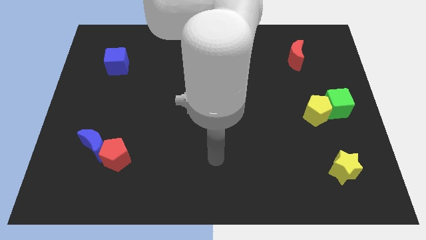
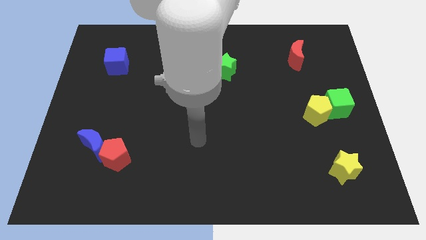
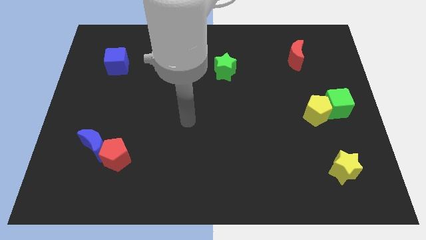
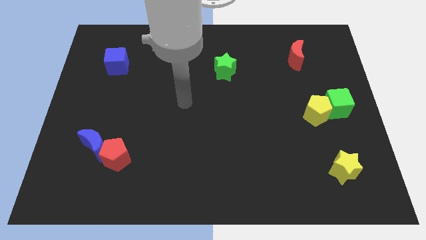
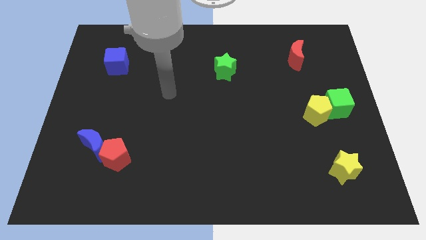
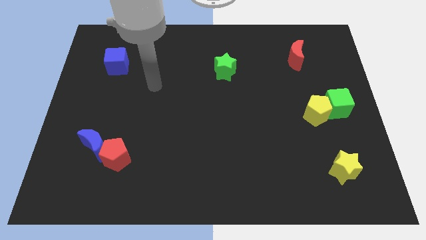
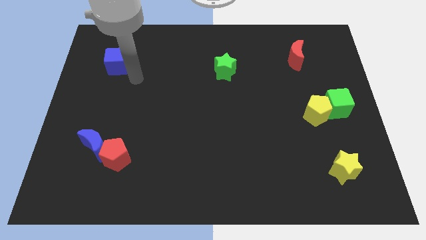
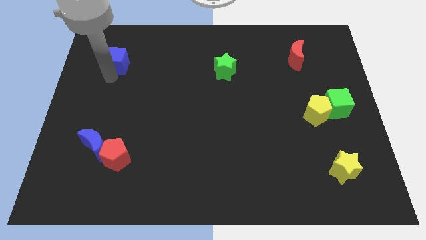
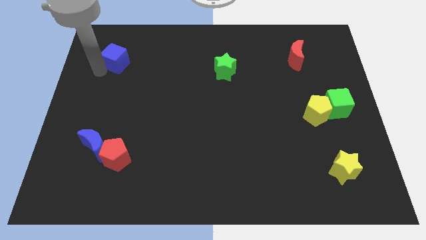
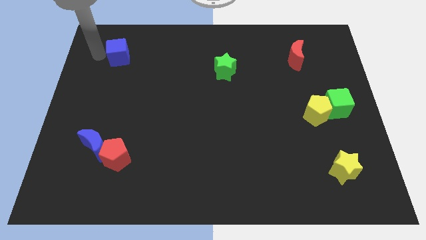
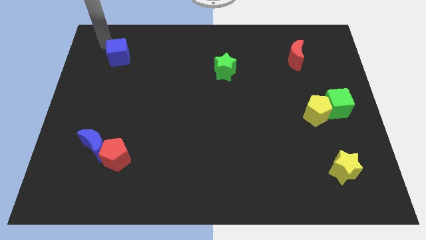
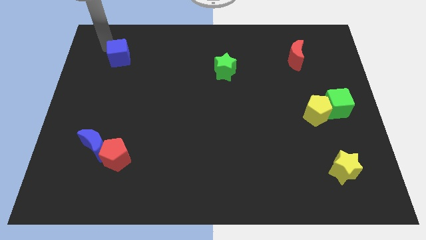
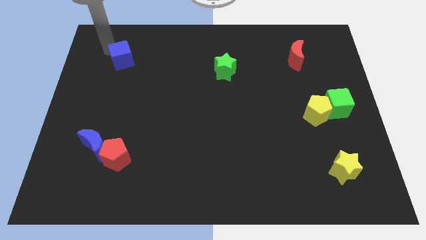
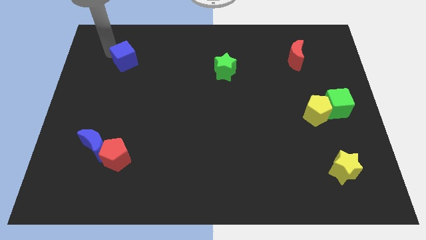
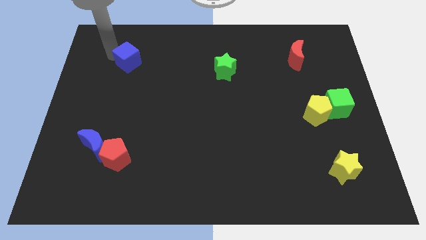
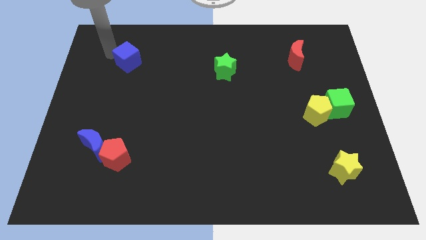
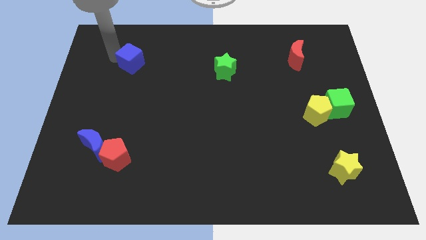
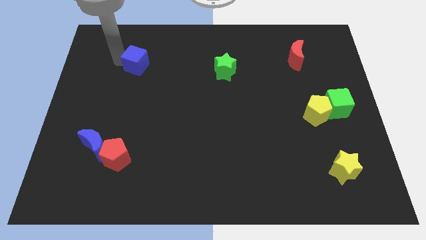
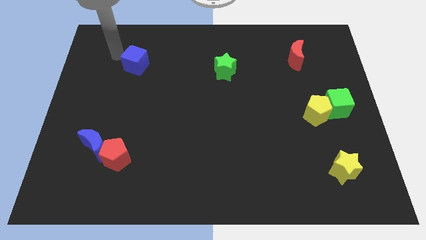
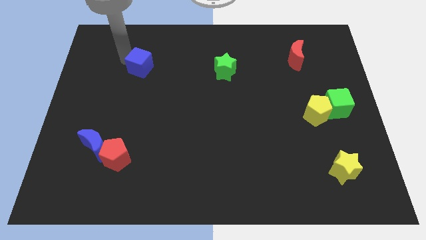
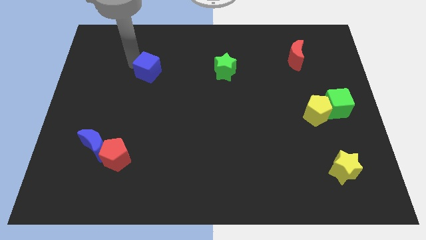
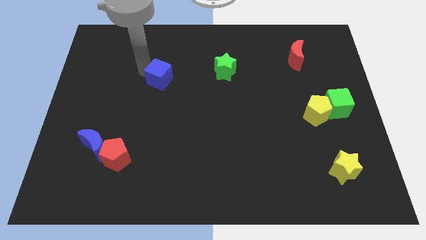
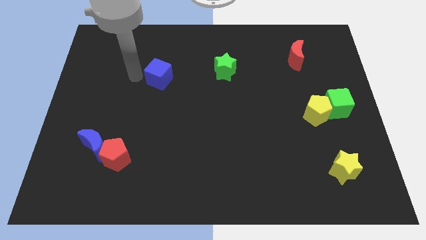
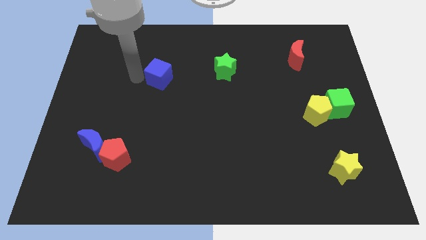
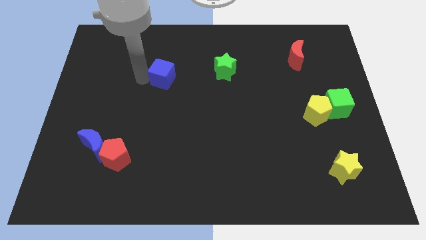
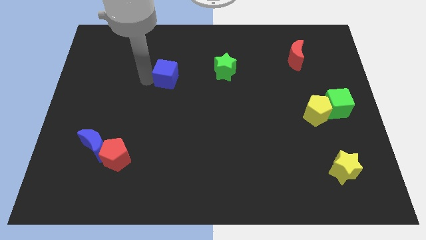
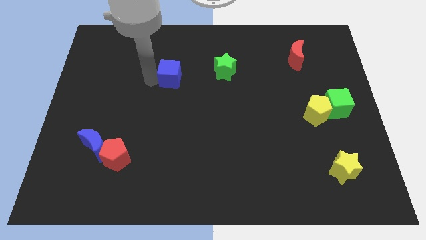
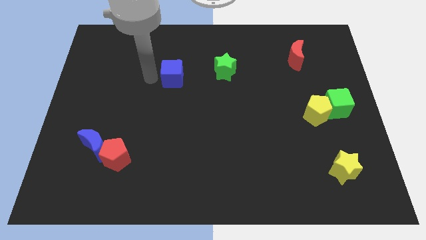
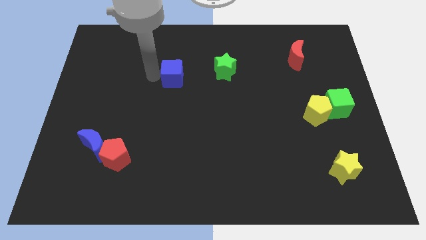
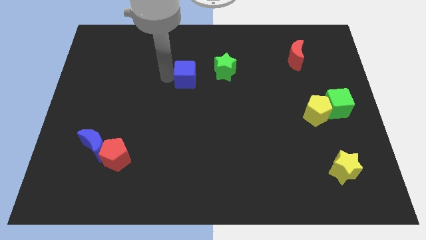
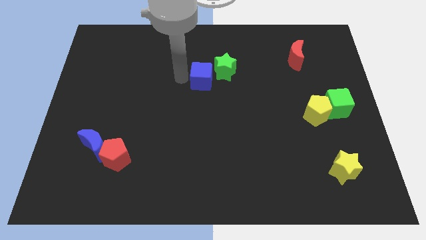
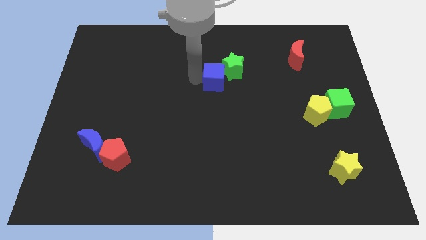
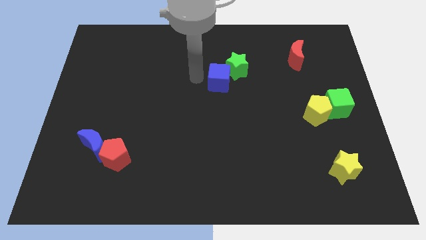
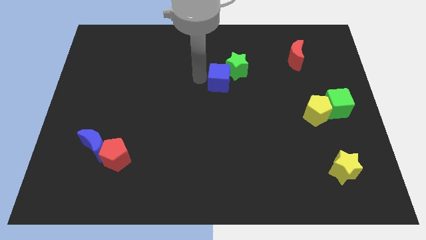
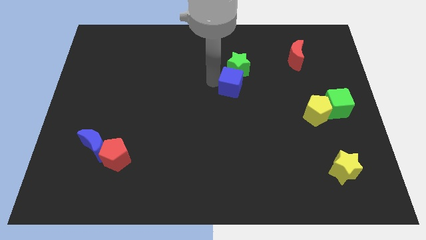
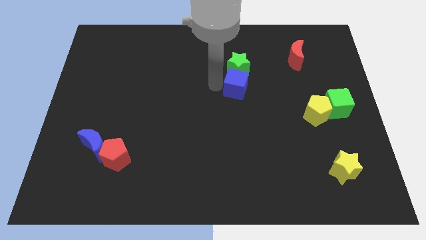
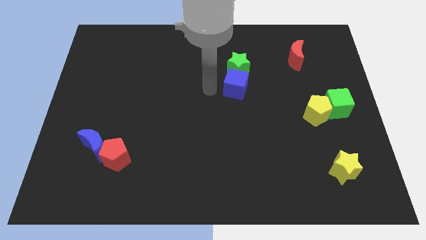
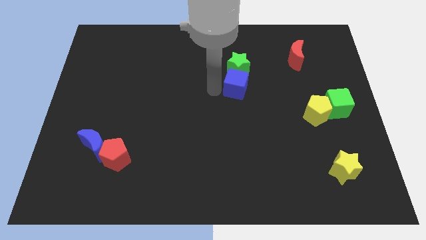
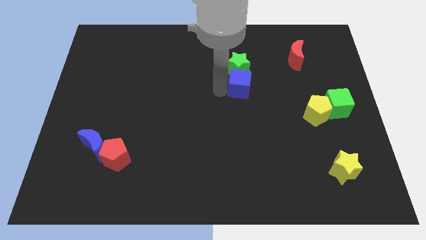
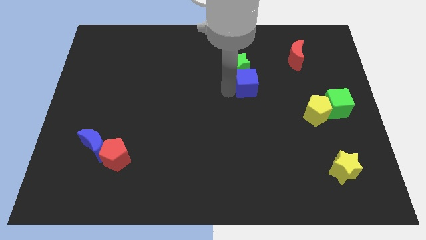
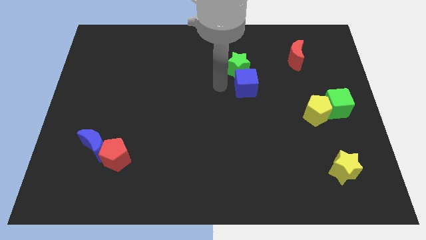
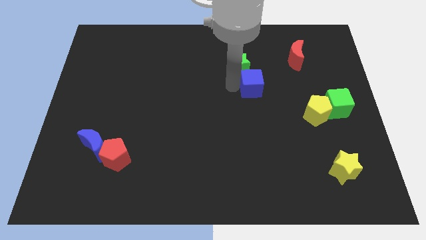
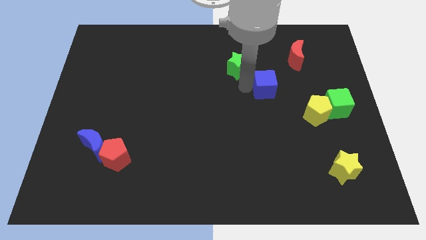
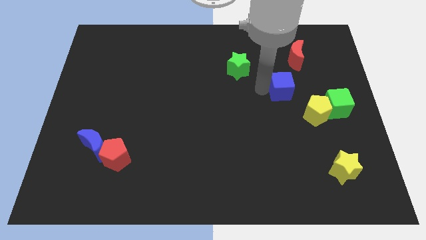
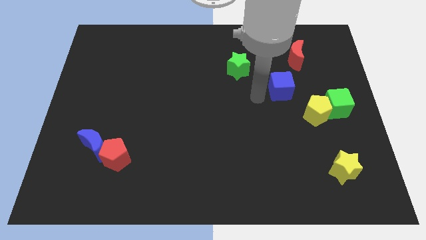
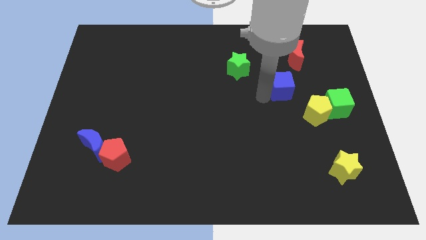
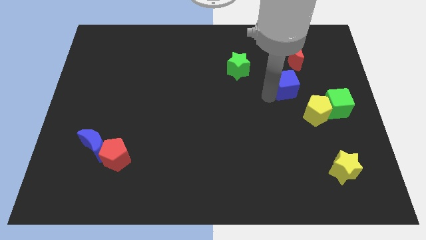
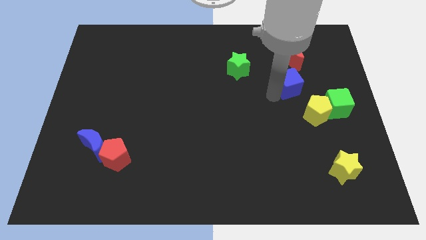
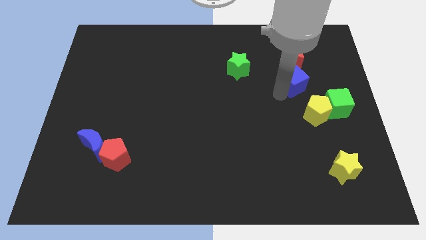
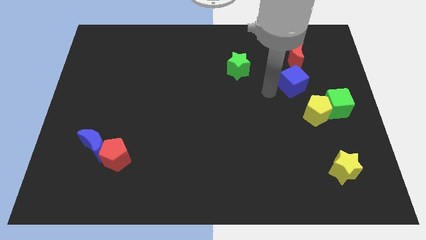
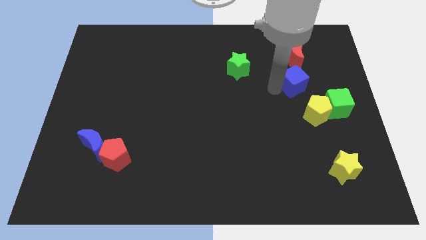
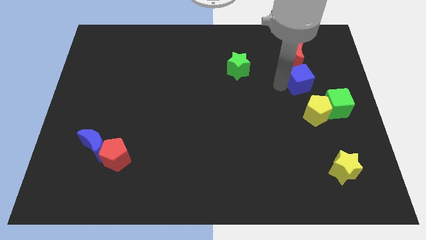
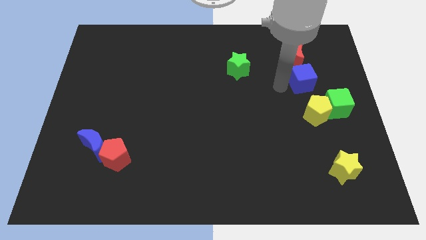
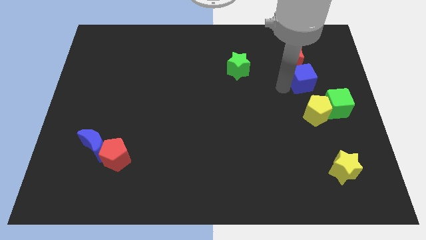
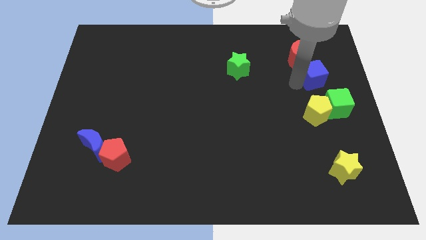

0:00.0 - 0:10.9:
push the blue cube above the green cube

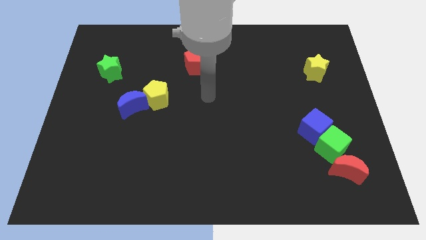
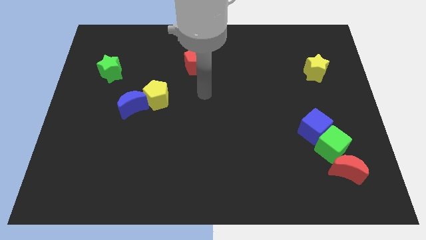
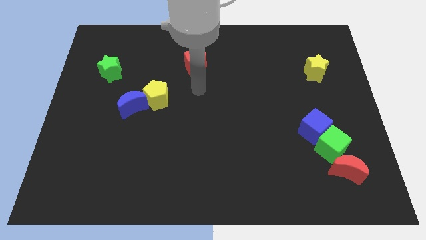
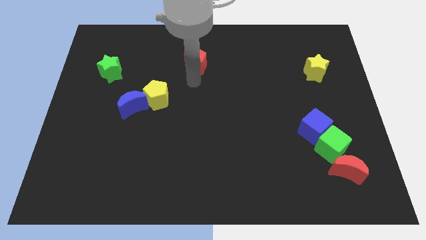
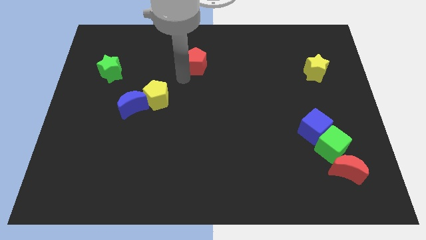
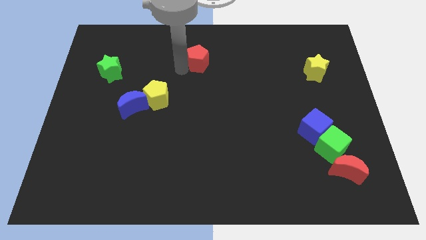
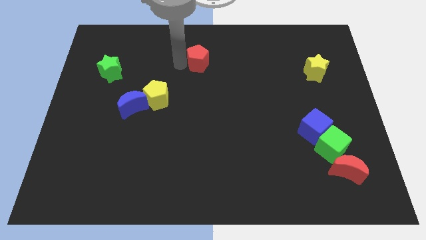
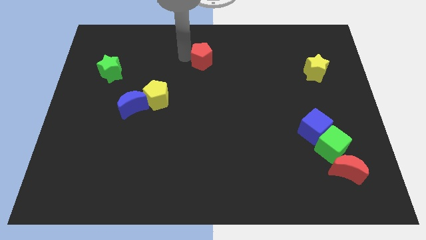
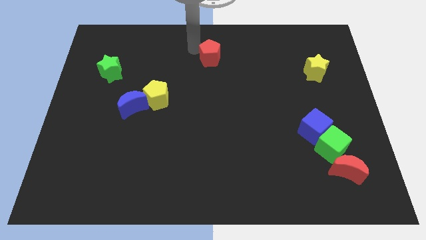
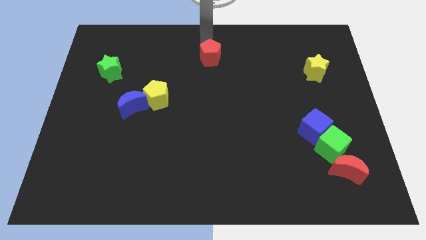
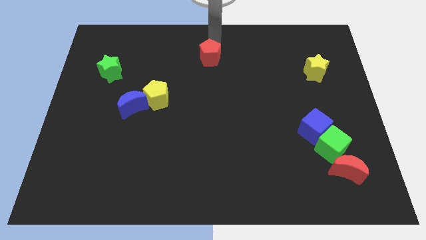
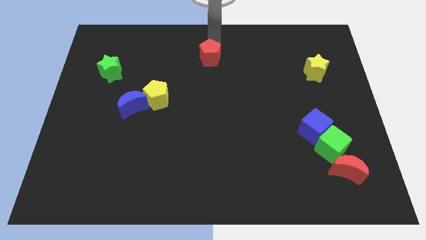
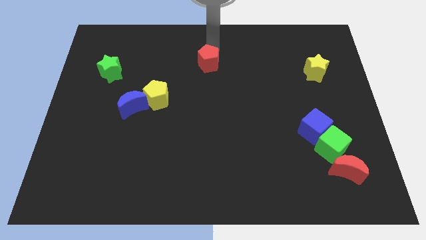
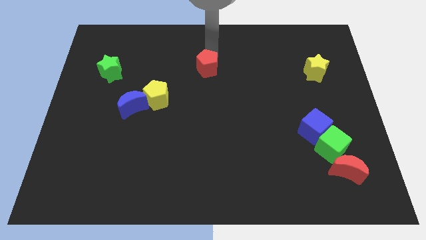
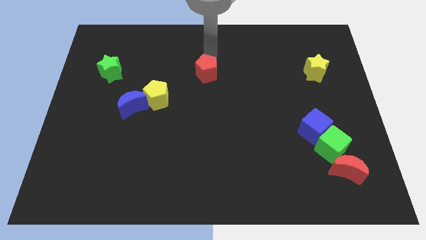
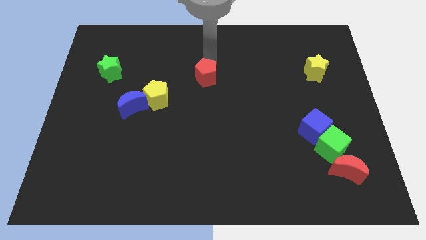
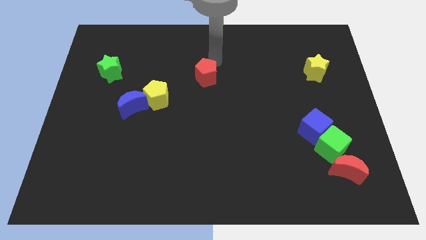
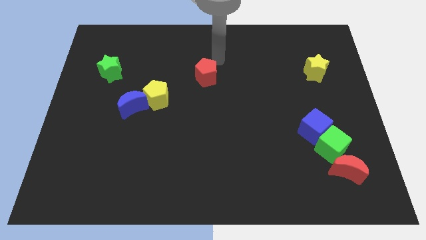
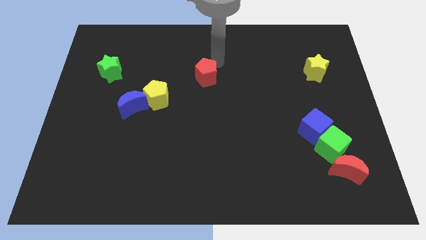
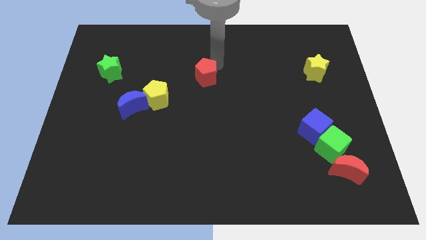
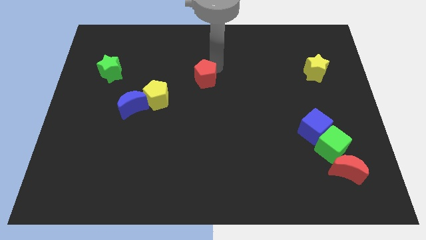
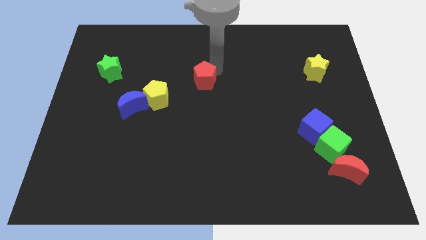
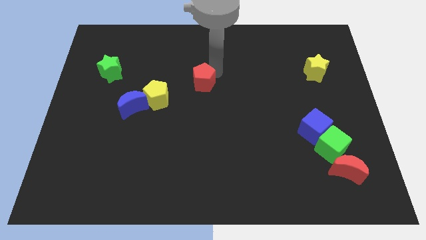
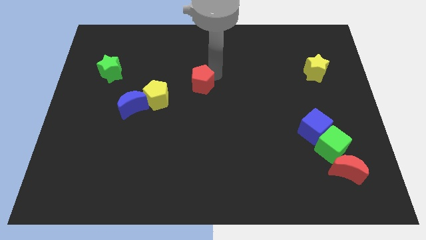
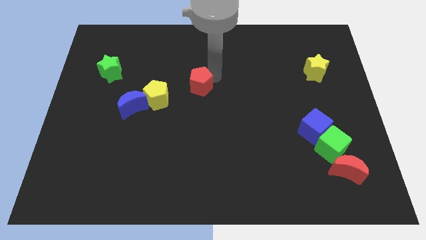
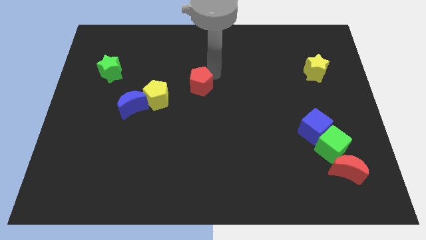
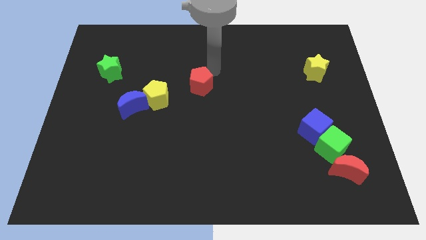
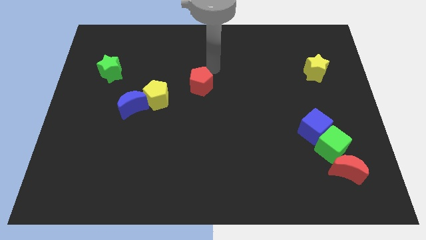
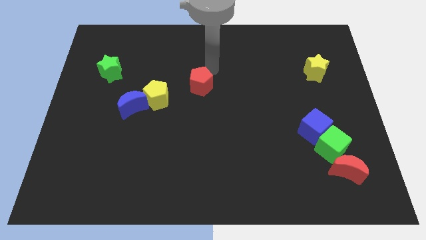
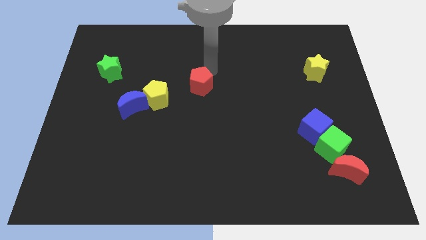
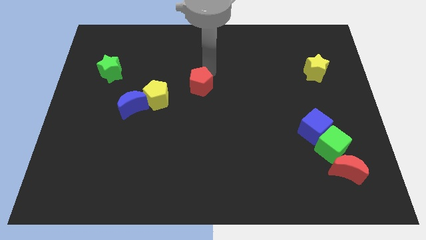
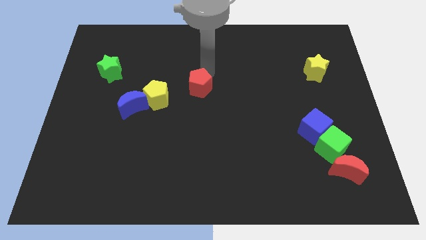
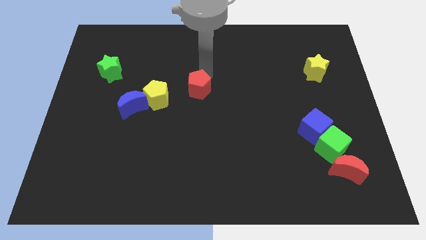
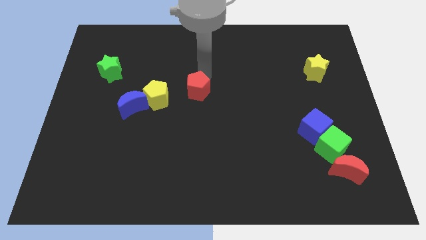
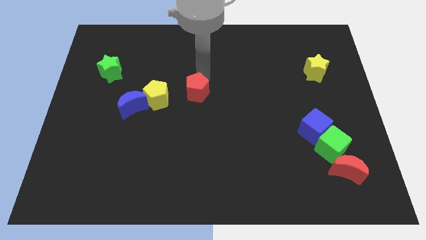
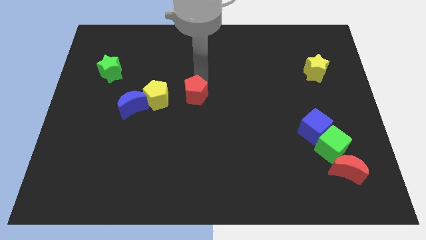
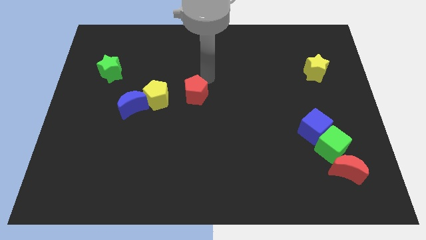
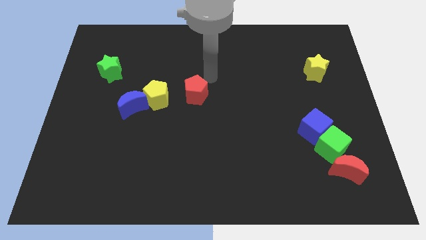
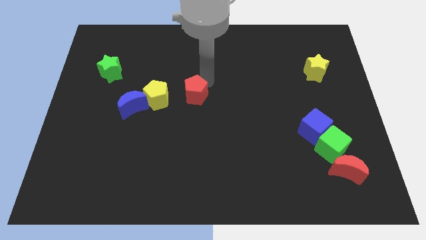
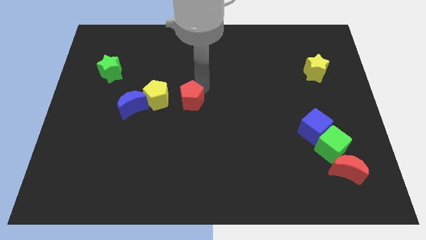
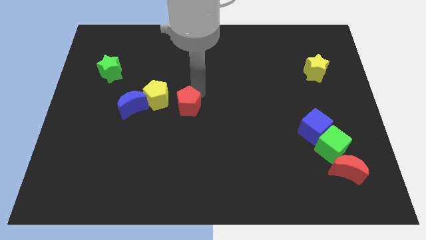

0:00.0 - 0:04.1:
slide the red pentagon to the bottom right of the yellow pentagon
